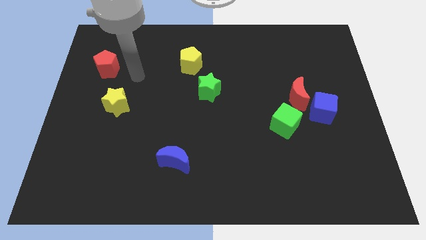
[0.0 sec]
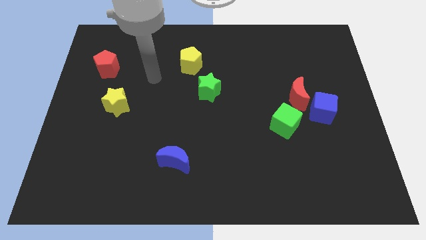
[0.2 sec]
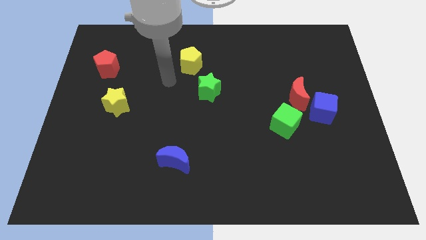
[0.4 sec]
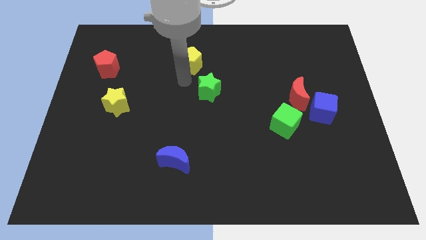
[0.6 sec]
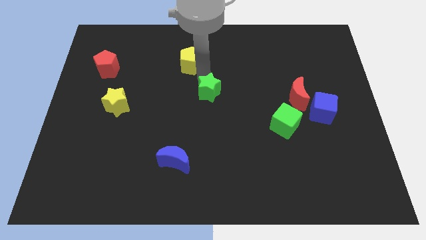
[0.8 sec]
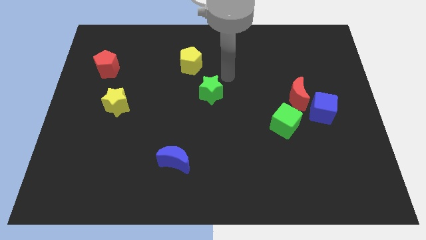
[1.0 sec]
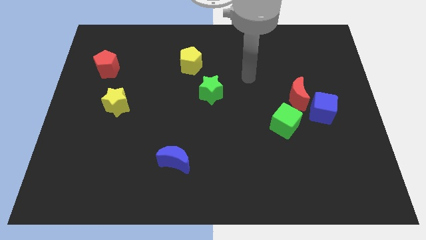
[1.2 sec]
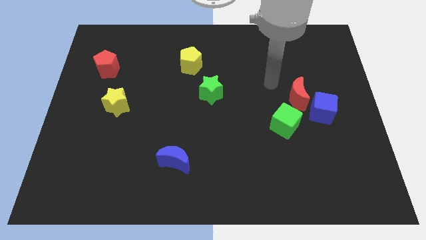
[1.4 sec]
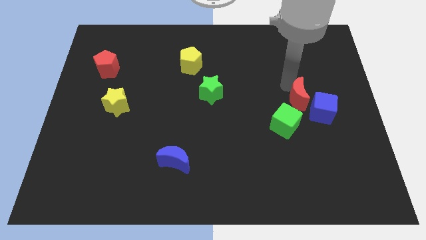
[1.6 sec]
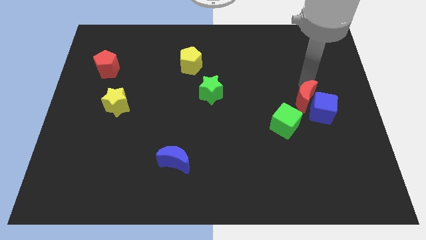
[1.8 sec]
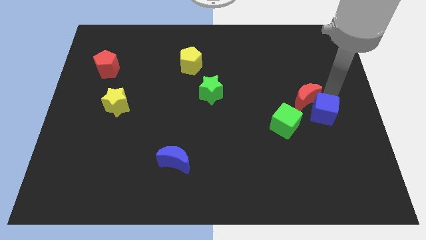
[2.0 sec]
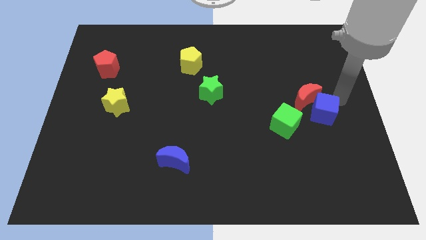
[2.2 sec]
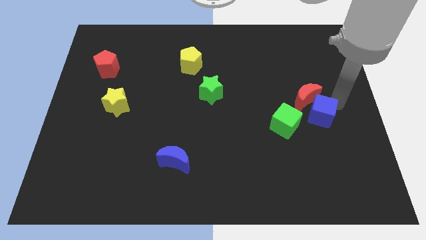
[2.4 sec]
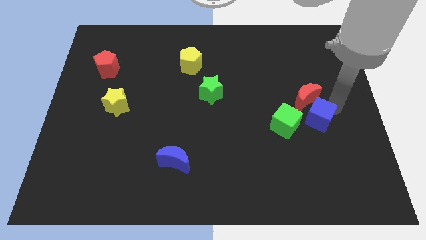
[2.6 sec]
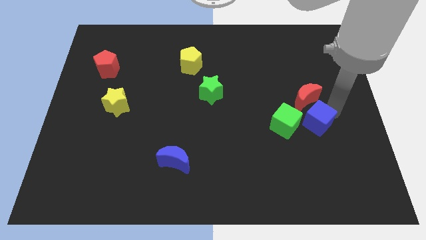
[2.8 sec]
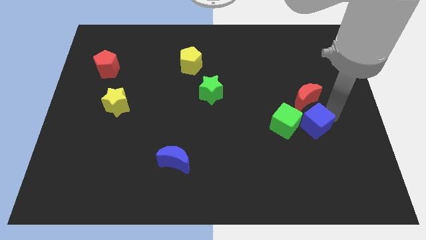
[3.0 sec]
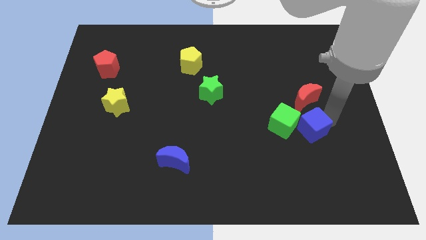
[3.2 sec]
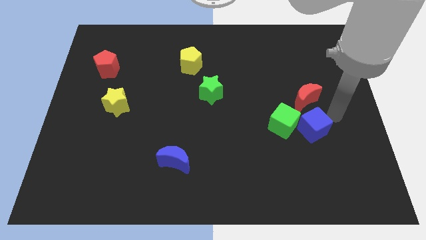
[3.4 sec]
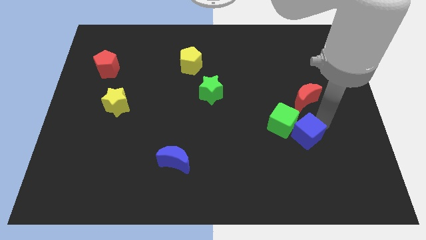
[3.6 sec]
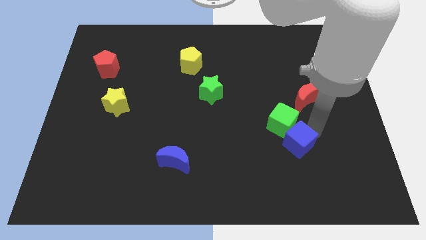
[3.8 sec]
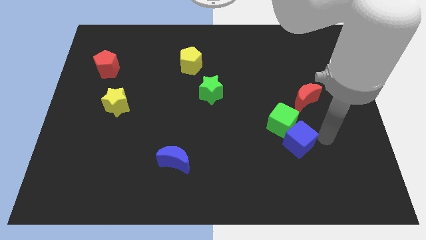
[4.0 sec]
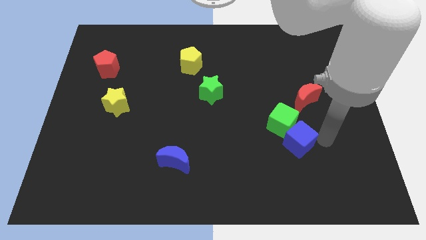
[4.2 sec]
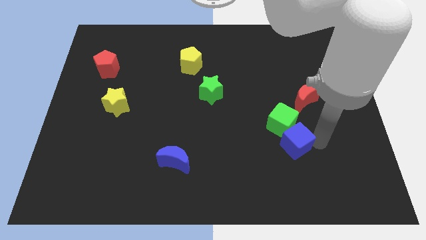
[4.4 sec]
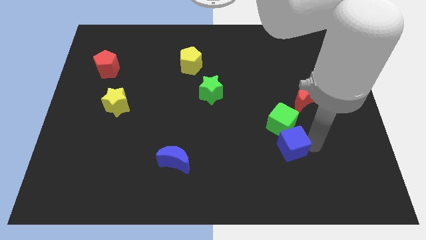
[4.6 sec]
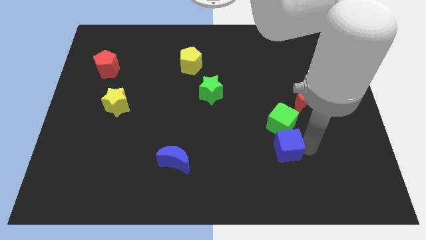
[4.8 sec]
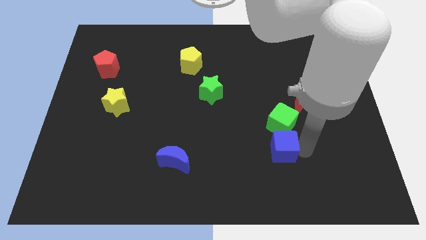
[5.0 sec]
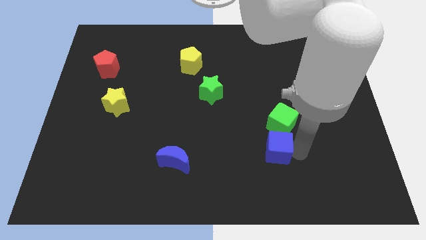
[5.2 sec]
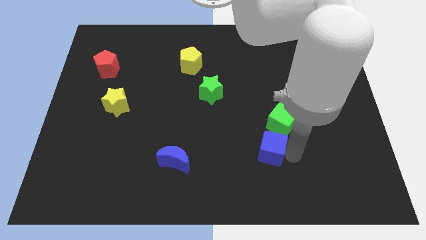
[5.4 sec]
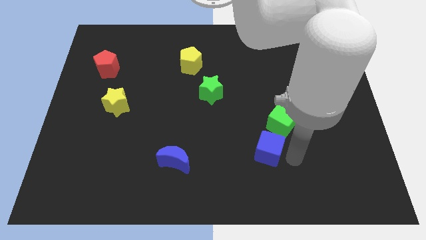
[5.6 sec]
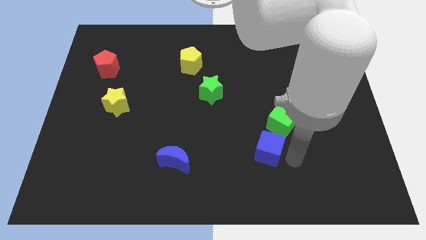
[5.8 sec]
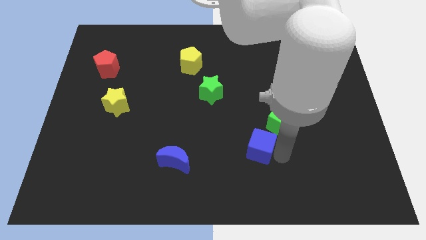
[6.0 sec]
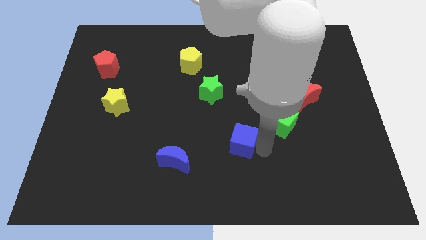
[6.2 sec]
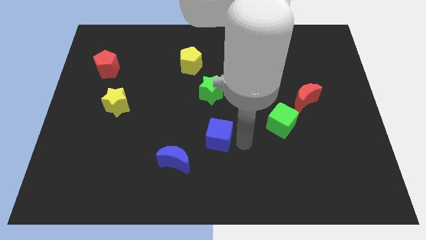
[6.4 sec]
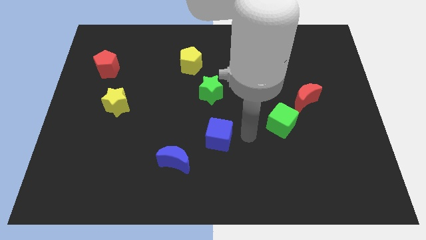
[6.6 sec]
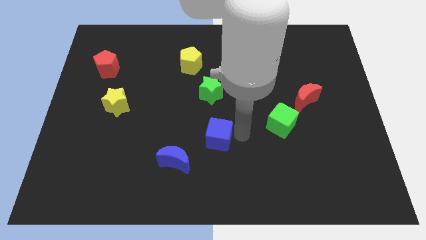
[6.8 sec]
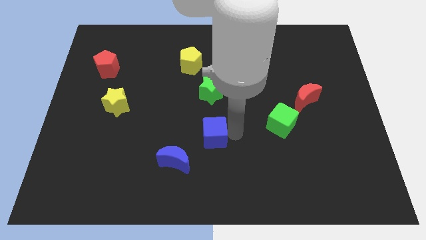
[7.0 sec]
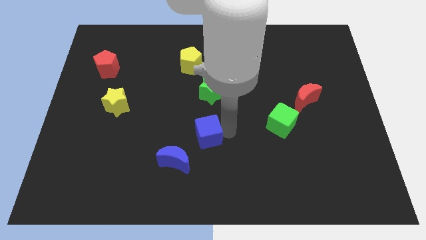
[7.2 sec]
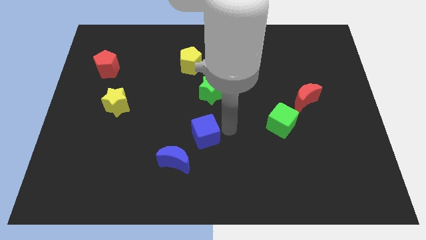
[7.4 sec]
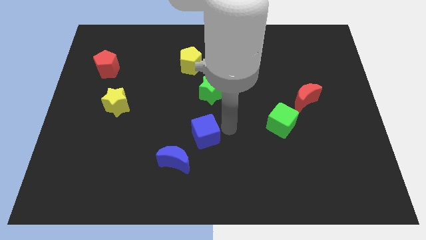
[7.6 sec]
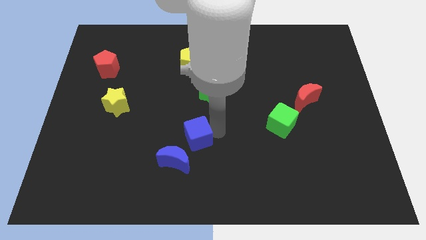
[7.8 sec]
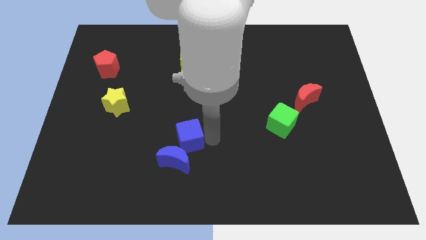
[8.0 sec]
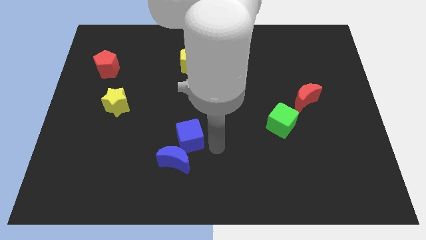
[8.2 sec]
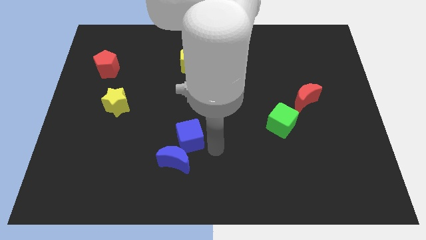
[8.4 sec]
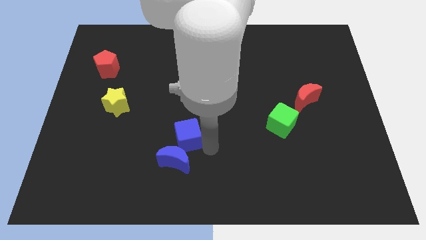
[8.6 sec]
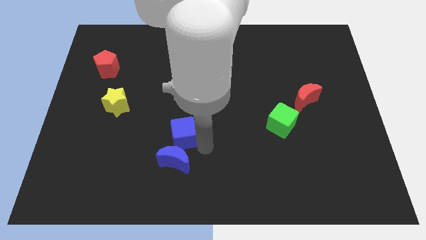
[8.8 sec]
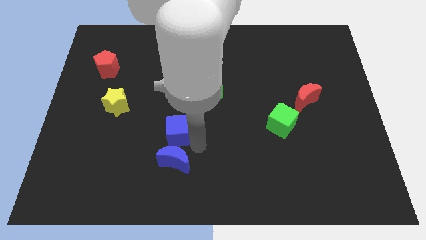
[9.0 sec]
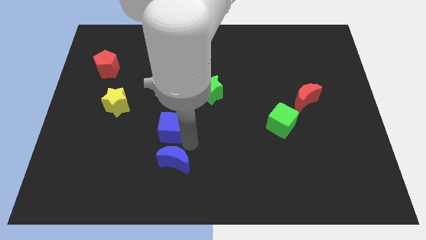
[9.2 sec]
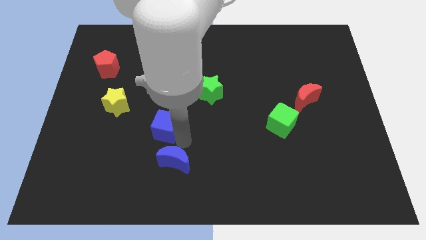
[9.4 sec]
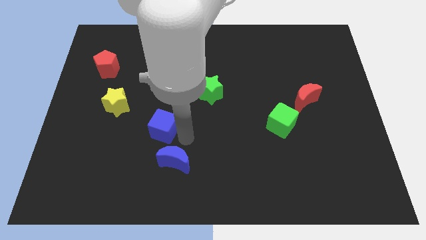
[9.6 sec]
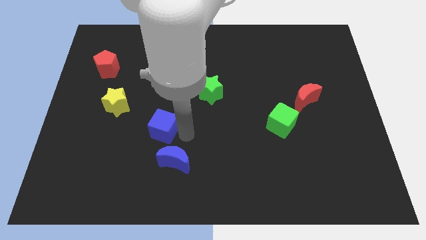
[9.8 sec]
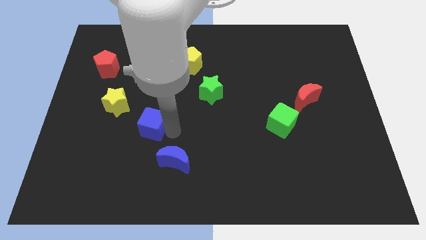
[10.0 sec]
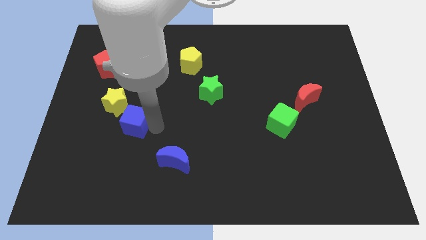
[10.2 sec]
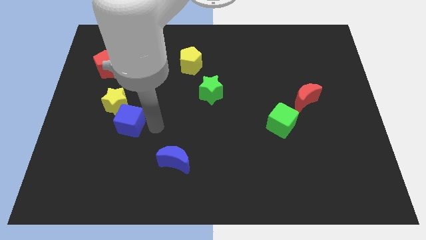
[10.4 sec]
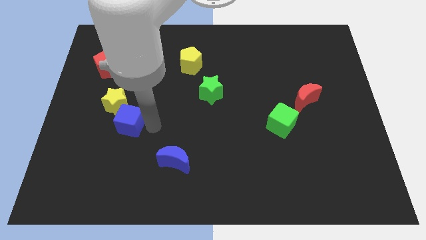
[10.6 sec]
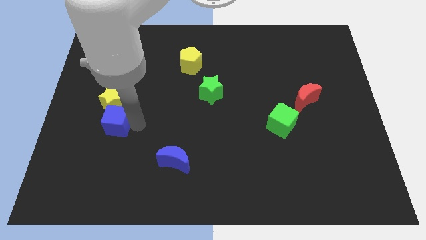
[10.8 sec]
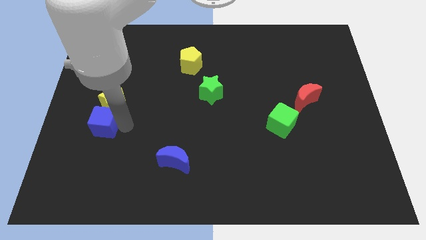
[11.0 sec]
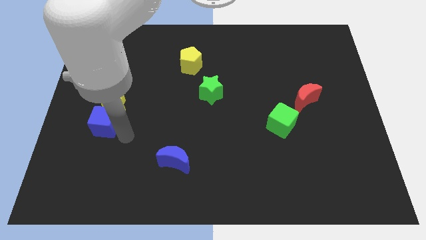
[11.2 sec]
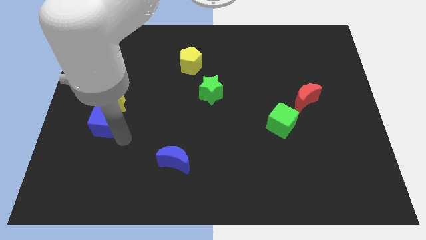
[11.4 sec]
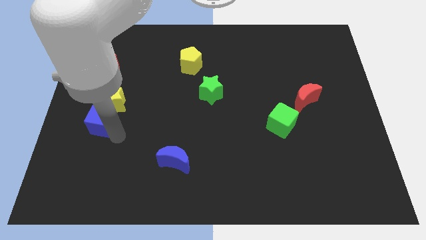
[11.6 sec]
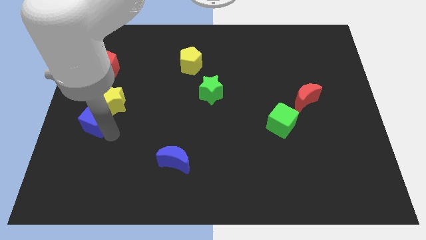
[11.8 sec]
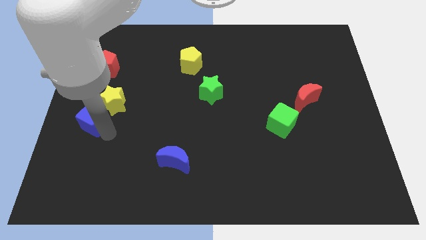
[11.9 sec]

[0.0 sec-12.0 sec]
put the blue cube to the left side
